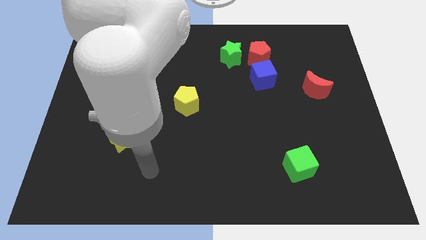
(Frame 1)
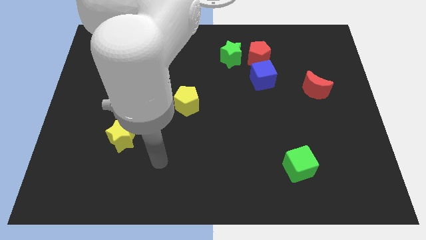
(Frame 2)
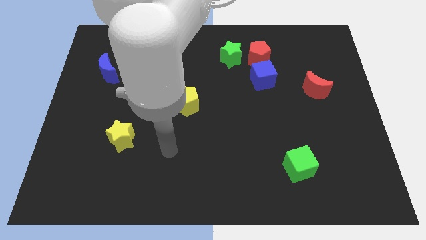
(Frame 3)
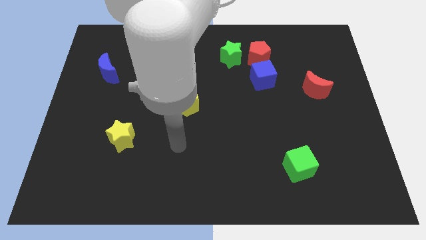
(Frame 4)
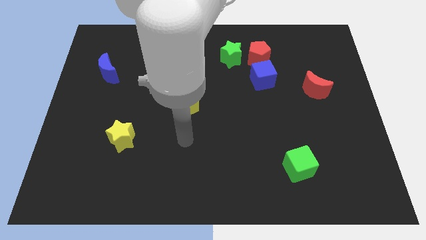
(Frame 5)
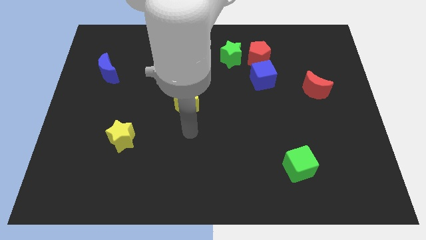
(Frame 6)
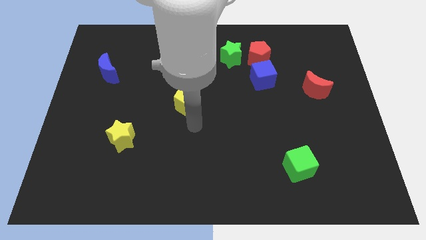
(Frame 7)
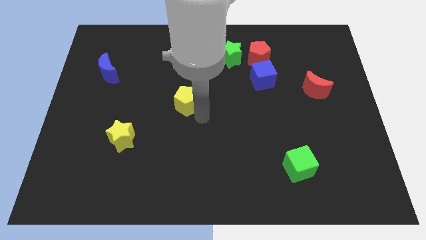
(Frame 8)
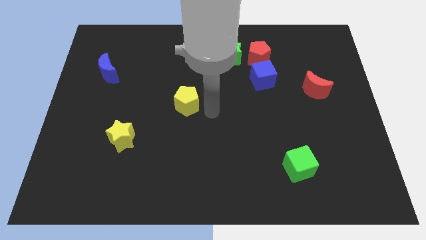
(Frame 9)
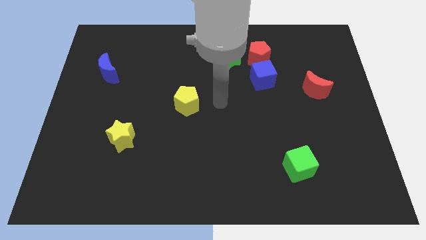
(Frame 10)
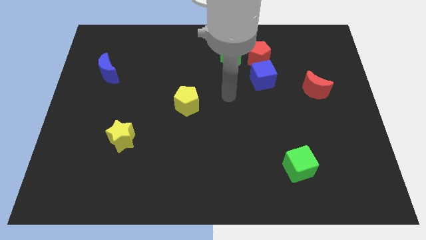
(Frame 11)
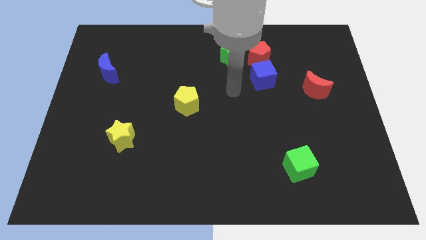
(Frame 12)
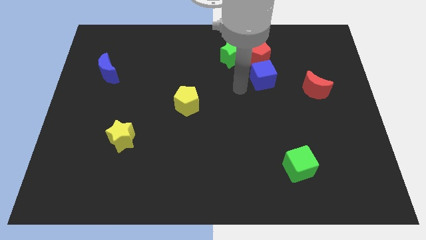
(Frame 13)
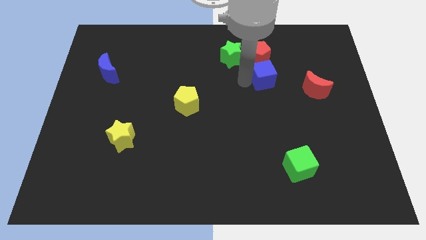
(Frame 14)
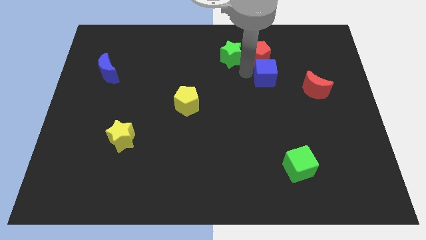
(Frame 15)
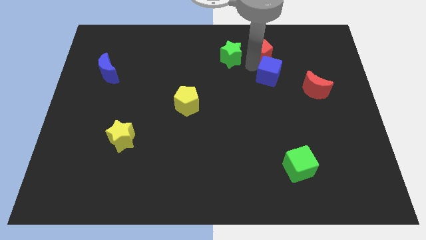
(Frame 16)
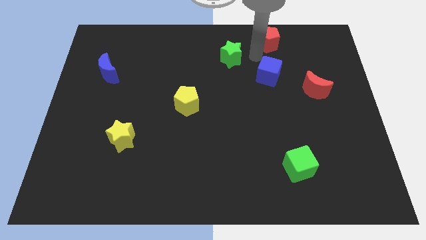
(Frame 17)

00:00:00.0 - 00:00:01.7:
move the green star away from the red pentagon

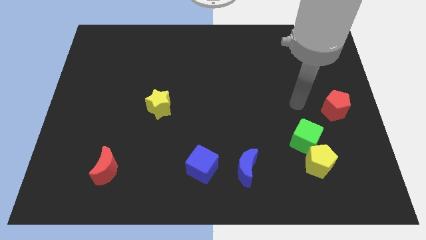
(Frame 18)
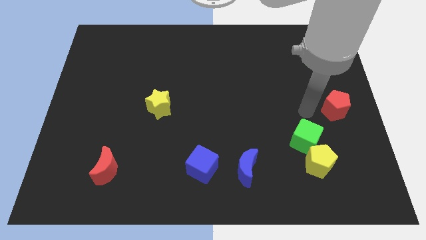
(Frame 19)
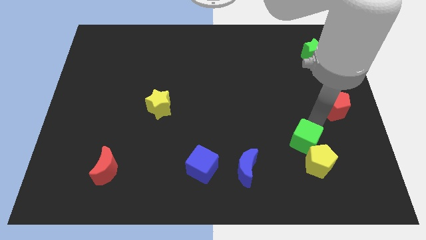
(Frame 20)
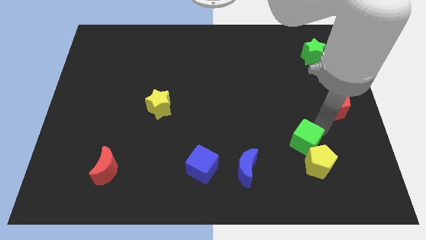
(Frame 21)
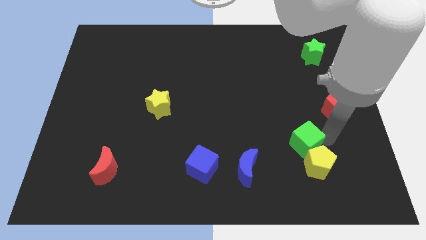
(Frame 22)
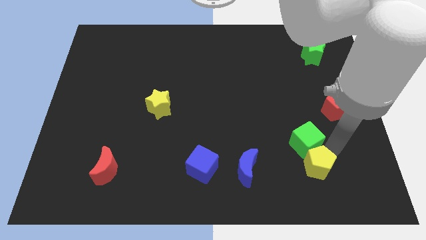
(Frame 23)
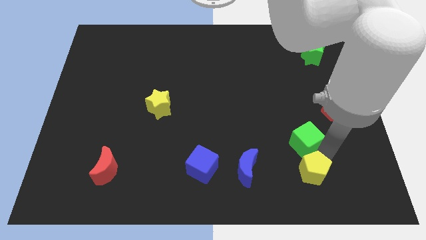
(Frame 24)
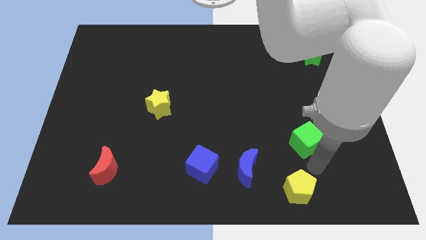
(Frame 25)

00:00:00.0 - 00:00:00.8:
pull the green cube apart from the yellow pentagon

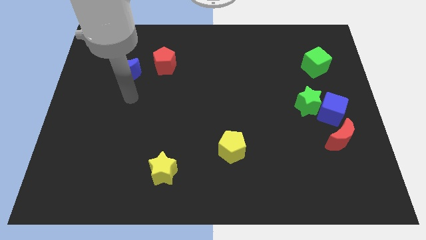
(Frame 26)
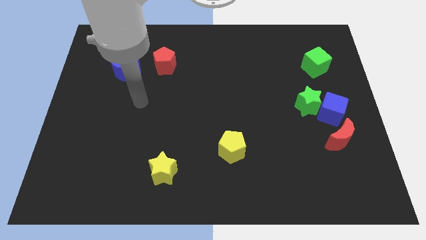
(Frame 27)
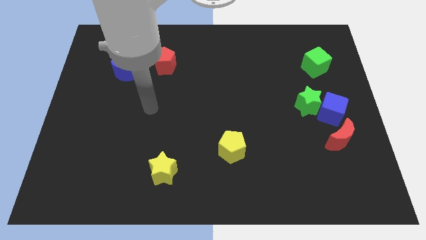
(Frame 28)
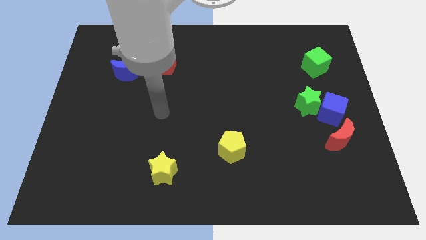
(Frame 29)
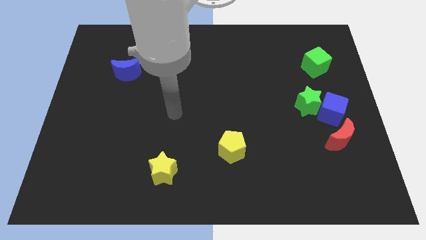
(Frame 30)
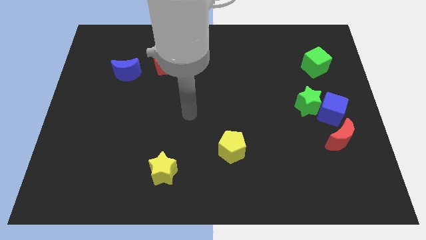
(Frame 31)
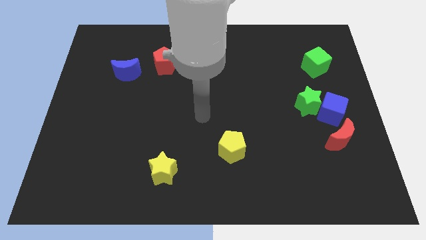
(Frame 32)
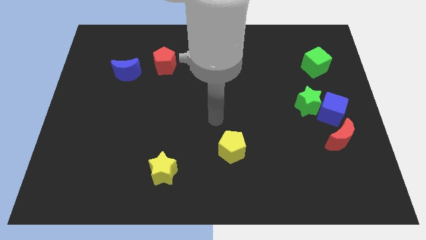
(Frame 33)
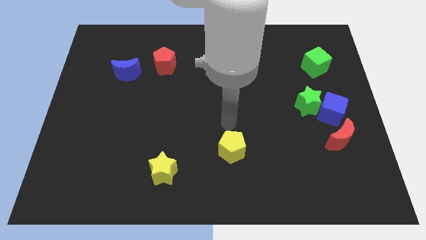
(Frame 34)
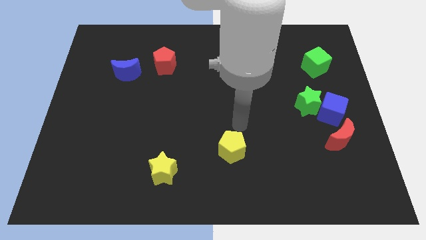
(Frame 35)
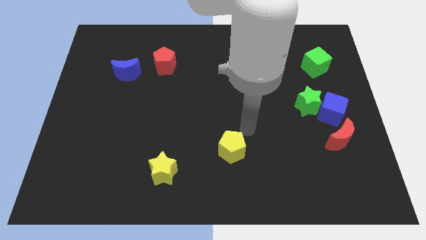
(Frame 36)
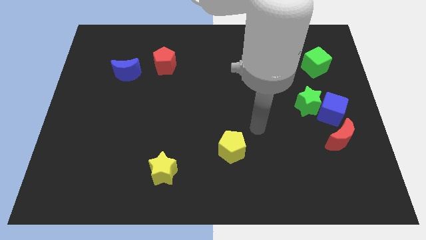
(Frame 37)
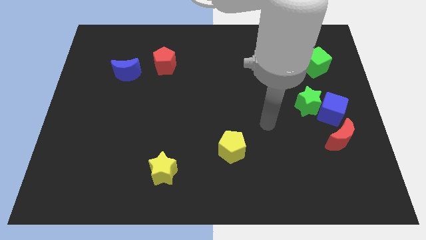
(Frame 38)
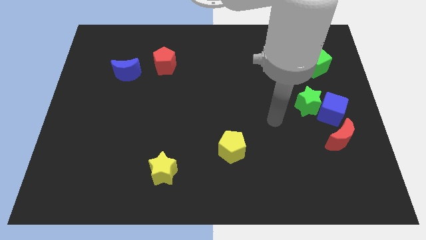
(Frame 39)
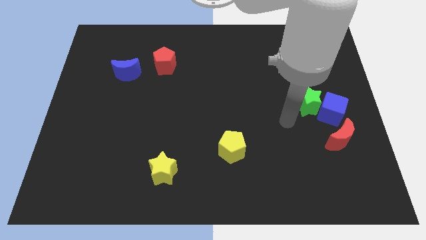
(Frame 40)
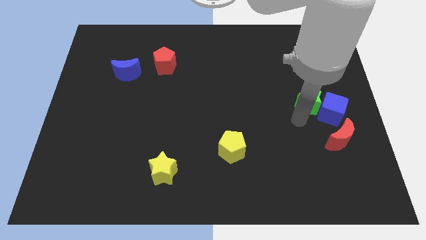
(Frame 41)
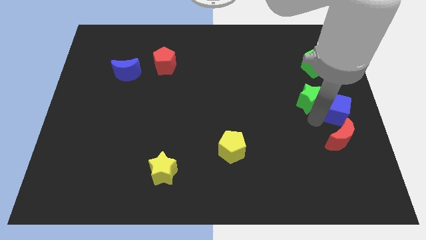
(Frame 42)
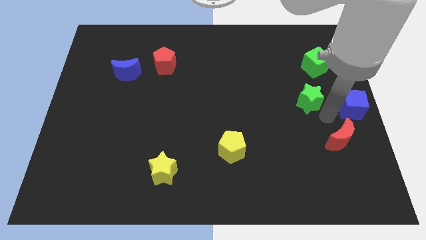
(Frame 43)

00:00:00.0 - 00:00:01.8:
pull the green star apart from the blue cube

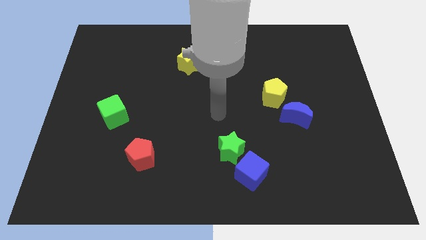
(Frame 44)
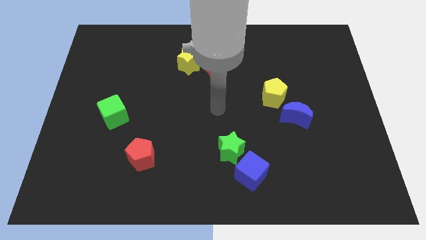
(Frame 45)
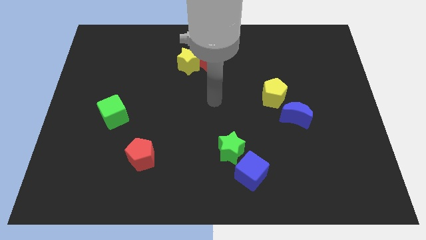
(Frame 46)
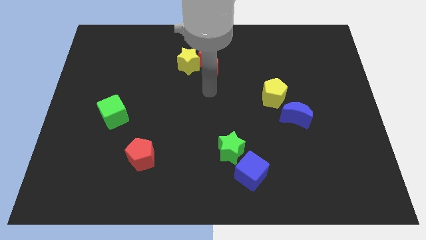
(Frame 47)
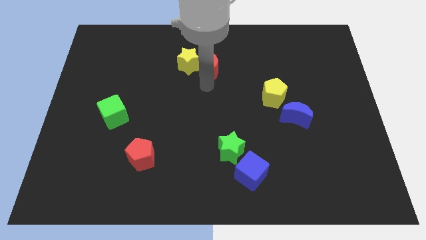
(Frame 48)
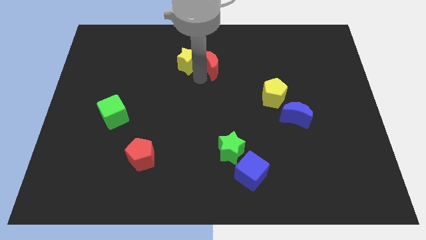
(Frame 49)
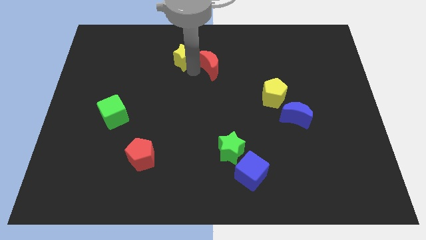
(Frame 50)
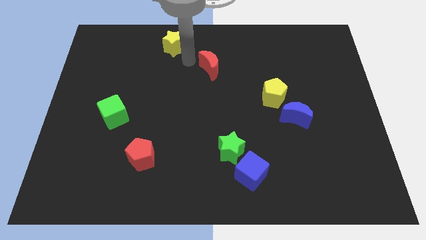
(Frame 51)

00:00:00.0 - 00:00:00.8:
separate the red moon from the yellow star

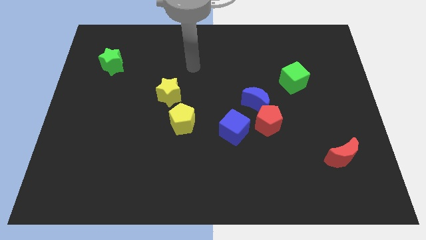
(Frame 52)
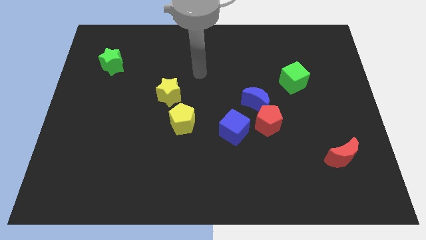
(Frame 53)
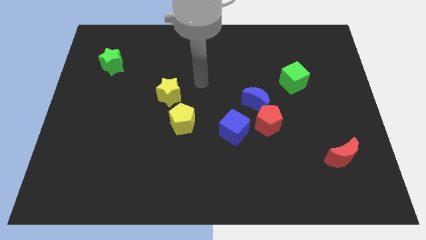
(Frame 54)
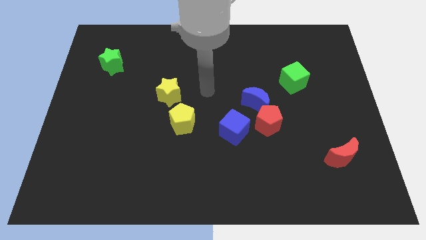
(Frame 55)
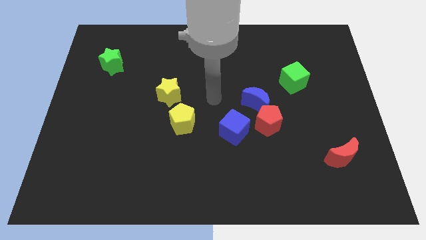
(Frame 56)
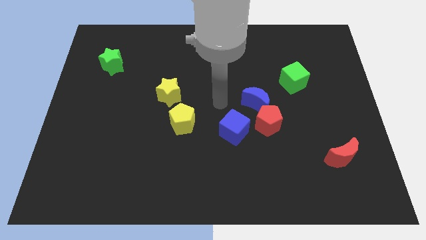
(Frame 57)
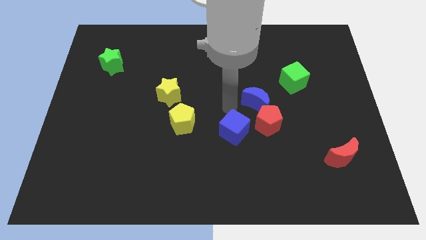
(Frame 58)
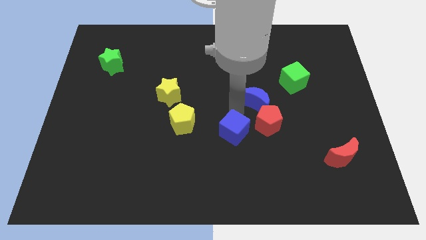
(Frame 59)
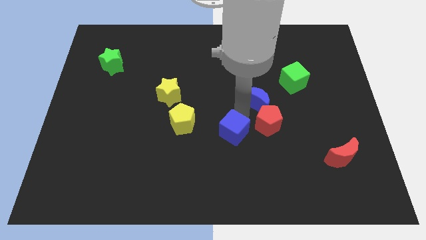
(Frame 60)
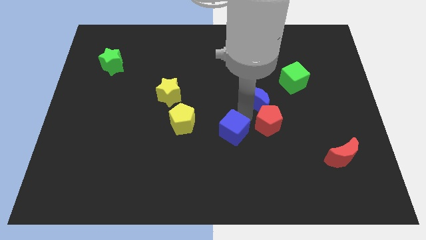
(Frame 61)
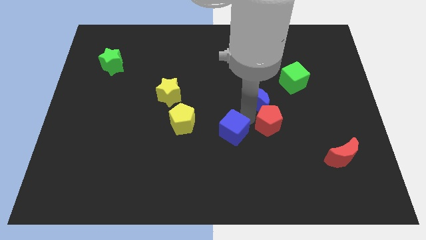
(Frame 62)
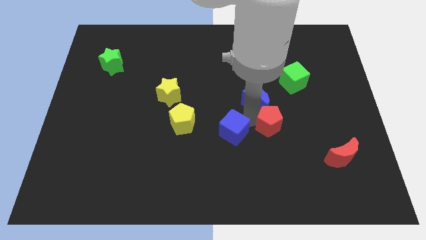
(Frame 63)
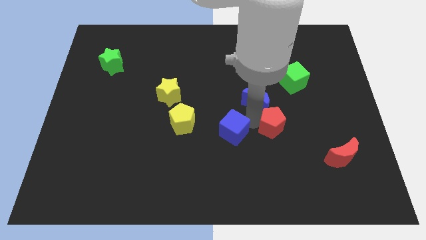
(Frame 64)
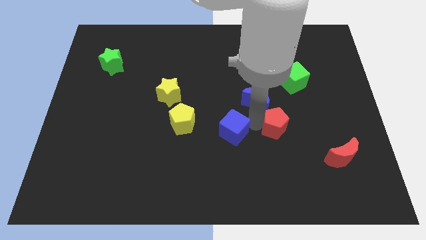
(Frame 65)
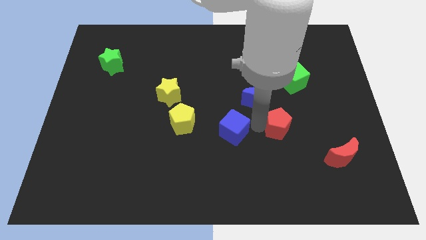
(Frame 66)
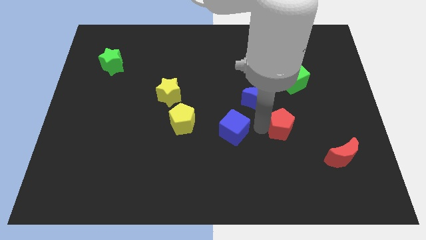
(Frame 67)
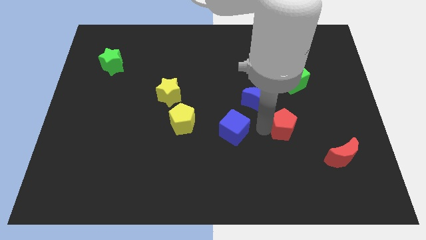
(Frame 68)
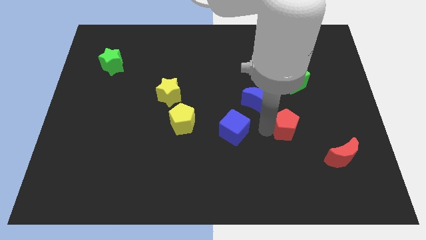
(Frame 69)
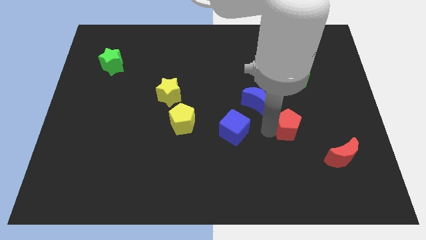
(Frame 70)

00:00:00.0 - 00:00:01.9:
pull the red pentagon apart from the blue moon and blue cube

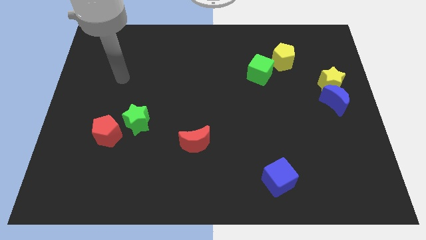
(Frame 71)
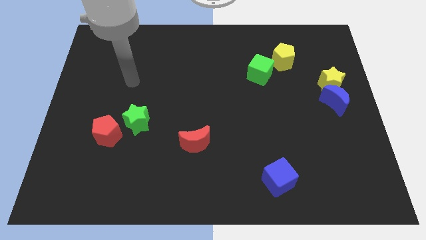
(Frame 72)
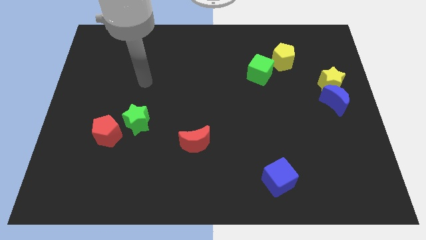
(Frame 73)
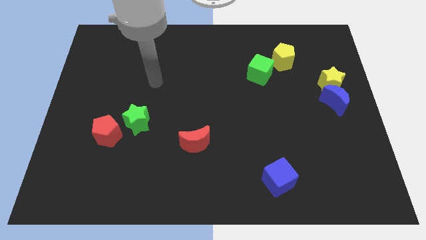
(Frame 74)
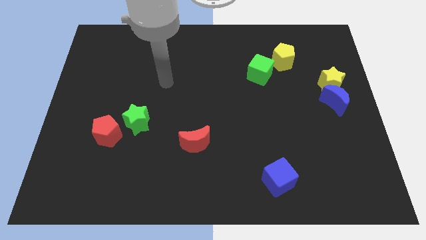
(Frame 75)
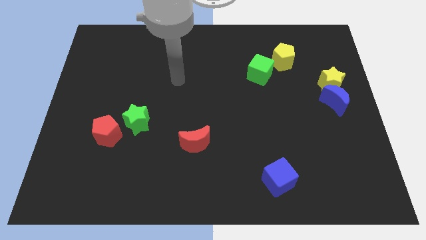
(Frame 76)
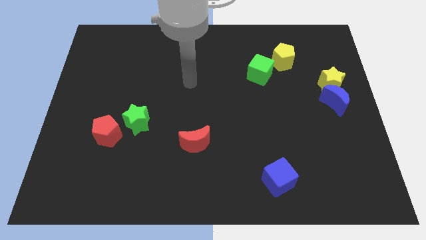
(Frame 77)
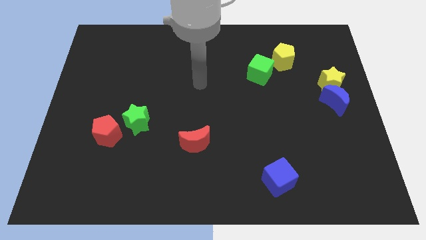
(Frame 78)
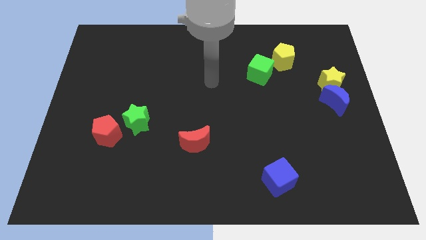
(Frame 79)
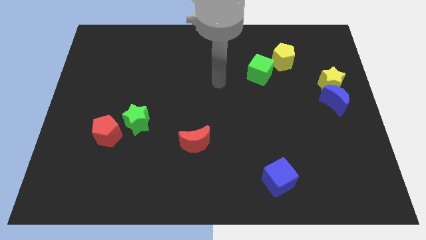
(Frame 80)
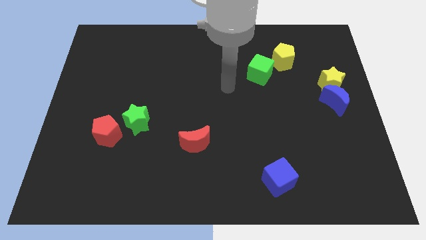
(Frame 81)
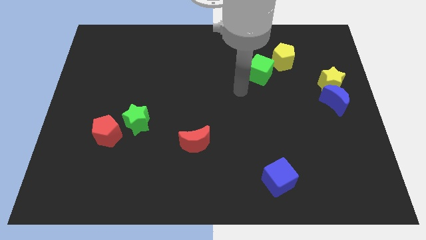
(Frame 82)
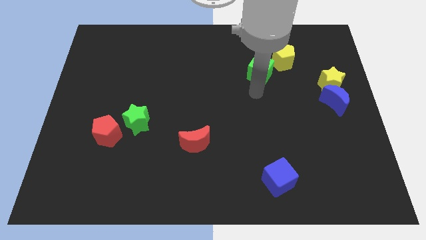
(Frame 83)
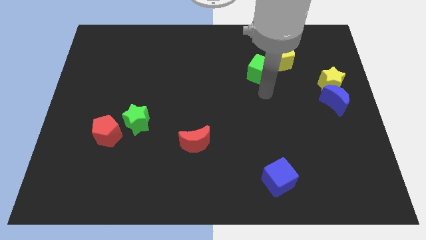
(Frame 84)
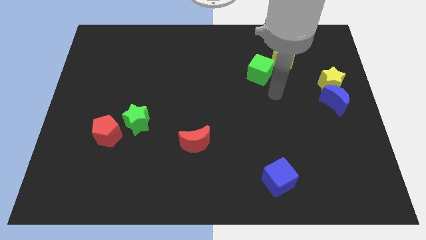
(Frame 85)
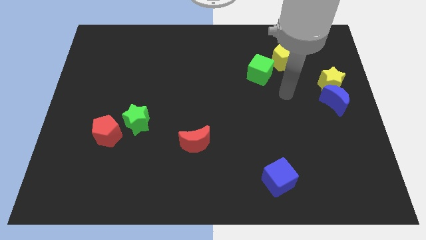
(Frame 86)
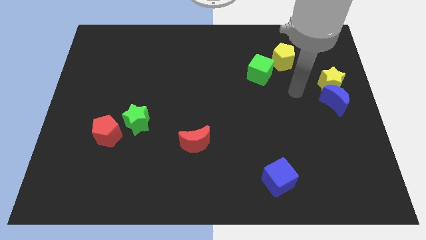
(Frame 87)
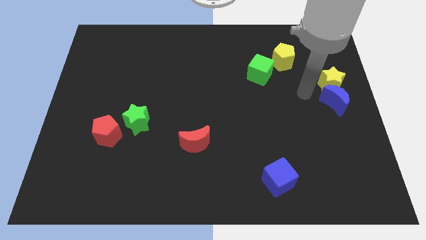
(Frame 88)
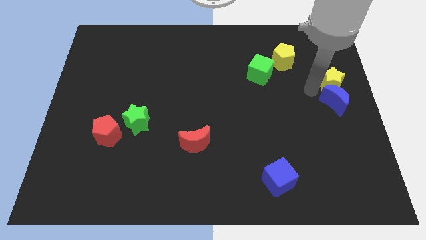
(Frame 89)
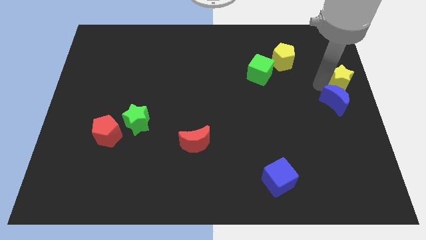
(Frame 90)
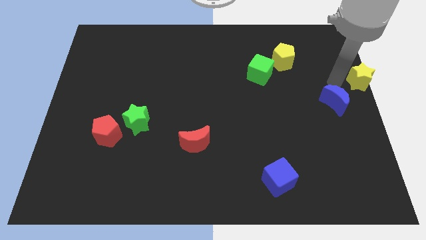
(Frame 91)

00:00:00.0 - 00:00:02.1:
pull the blue moon apart from the yellow star

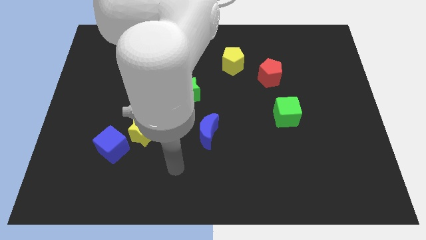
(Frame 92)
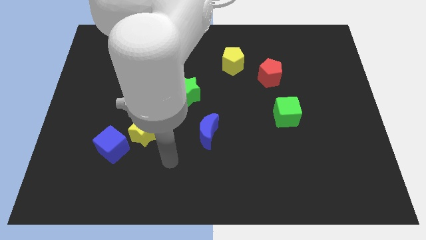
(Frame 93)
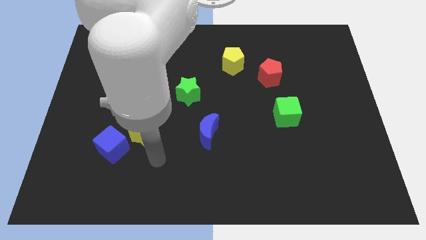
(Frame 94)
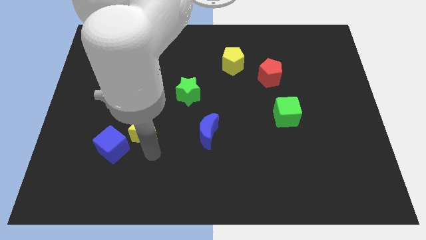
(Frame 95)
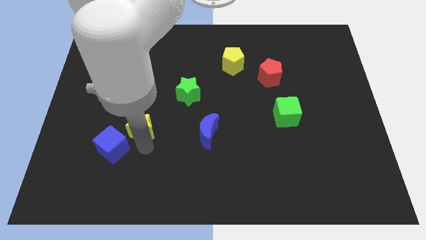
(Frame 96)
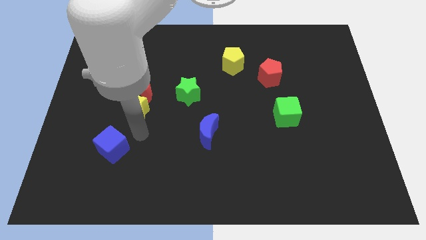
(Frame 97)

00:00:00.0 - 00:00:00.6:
move the blue cube away from the yellow star
